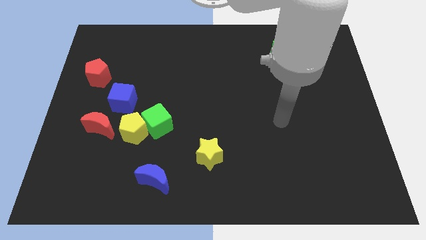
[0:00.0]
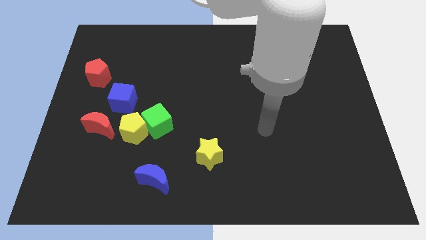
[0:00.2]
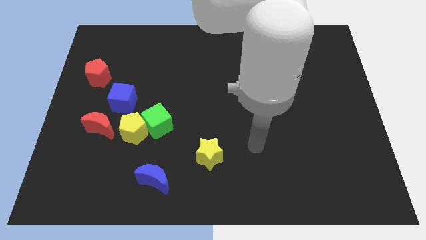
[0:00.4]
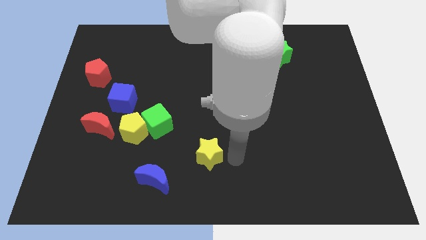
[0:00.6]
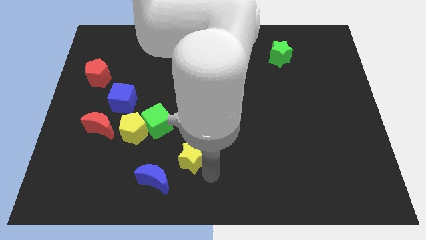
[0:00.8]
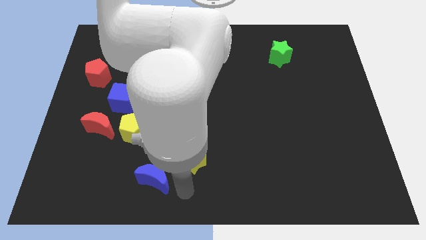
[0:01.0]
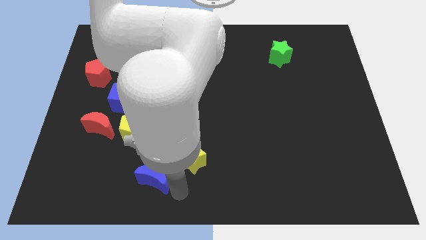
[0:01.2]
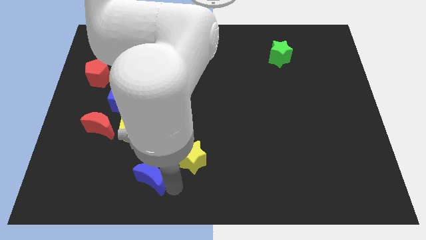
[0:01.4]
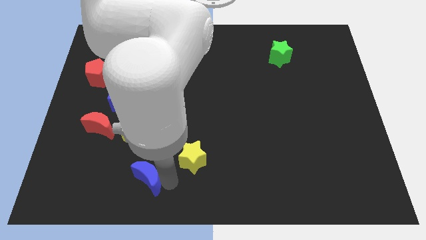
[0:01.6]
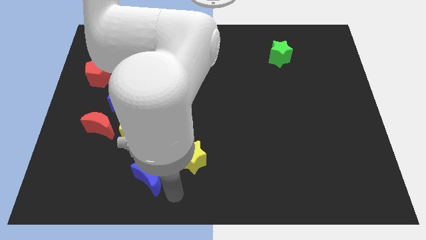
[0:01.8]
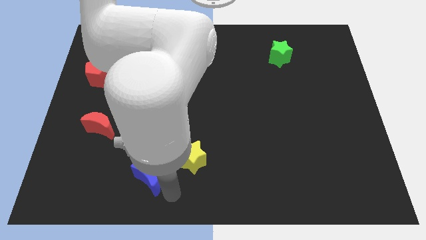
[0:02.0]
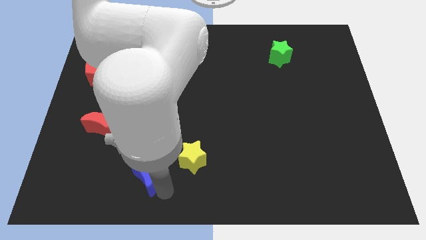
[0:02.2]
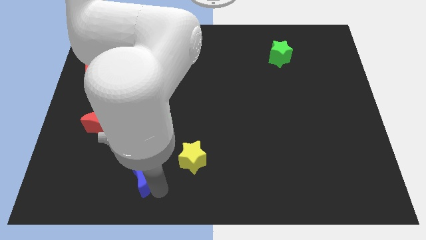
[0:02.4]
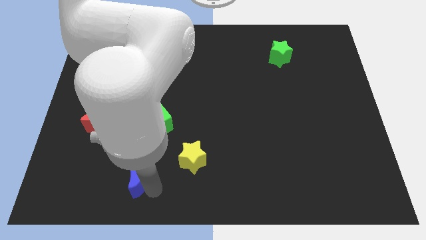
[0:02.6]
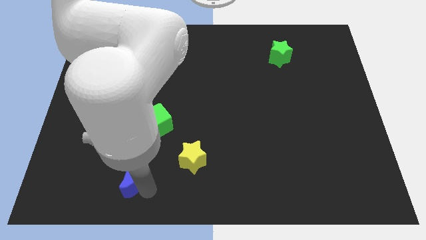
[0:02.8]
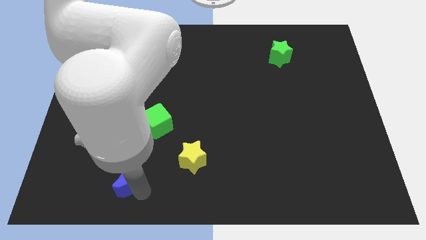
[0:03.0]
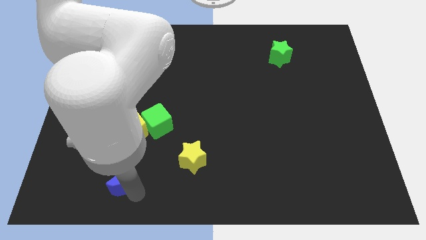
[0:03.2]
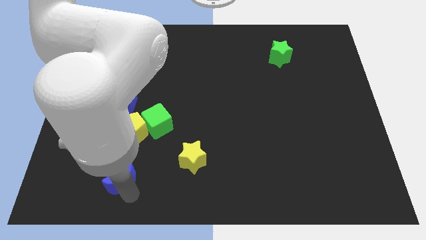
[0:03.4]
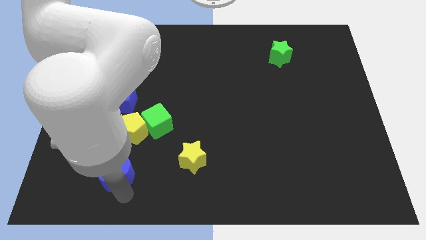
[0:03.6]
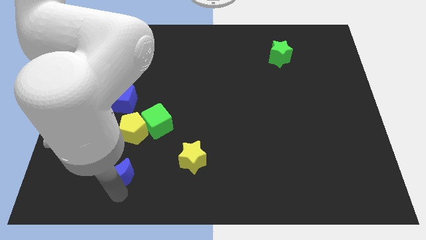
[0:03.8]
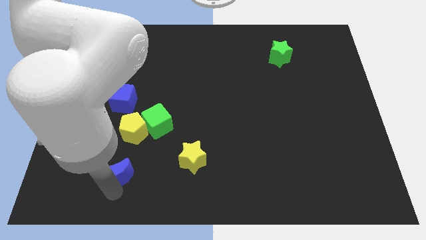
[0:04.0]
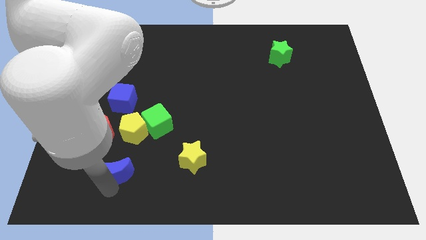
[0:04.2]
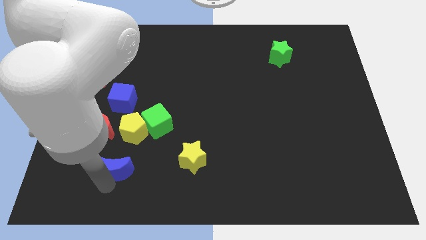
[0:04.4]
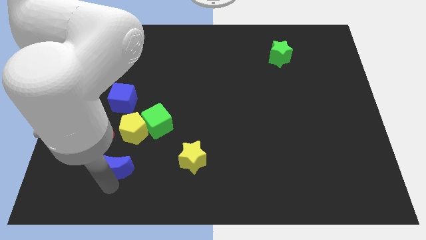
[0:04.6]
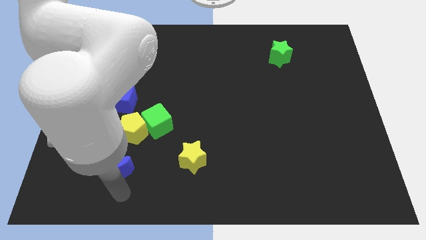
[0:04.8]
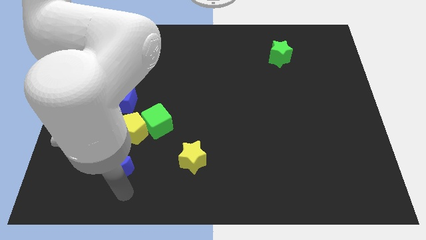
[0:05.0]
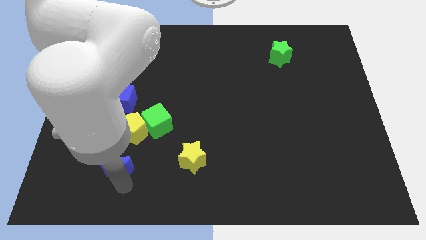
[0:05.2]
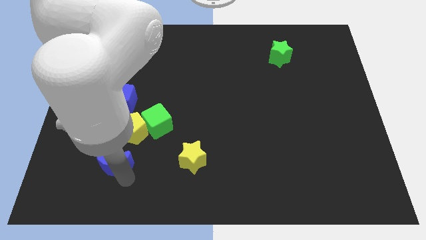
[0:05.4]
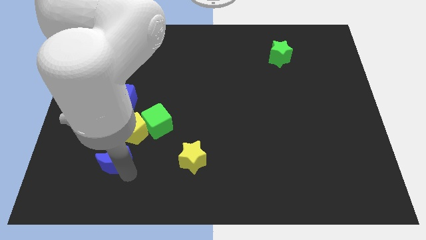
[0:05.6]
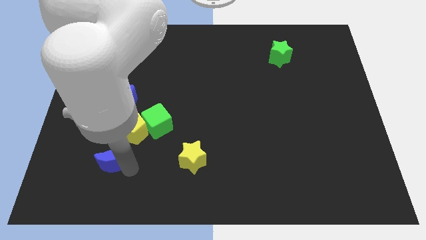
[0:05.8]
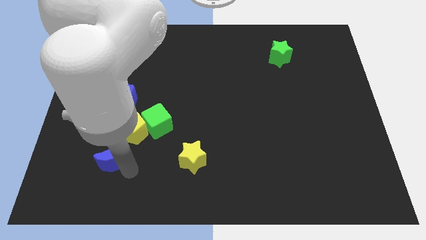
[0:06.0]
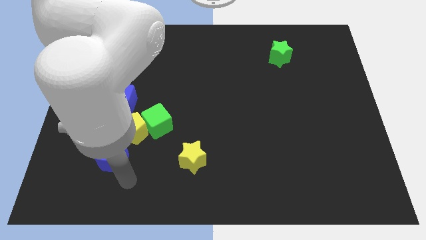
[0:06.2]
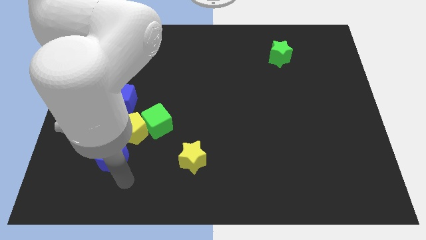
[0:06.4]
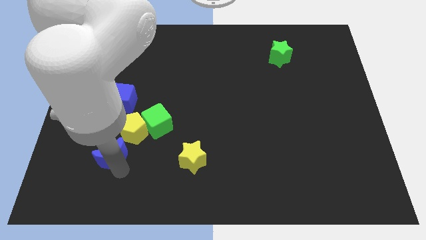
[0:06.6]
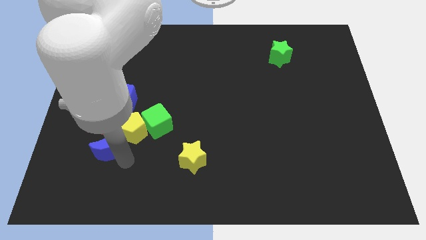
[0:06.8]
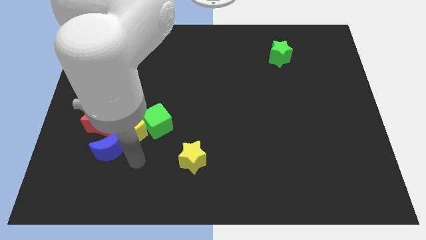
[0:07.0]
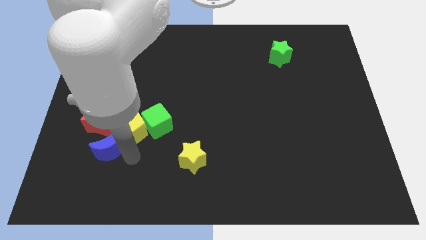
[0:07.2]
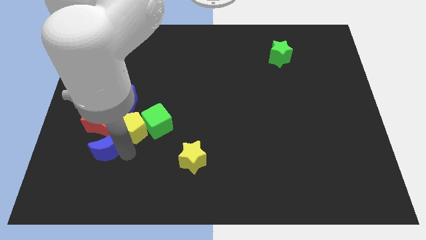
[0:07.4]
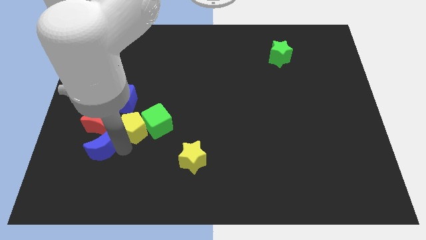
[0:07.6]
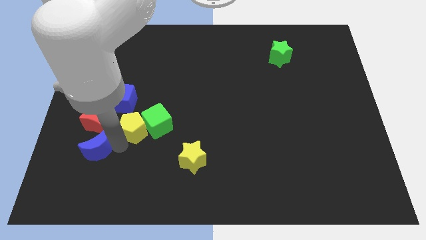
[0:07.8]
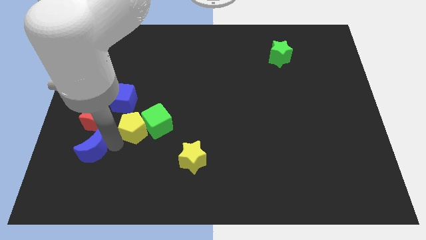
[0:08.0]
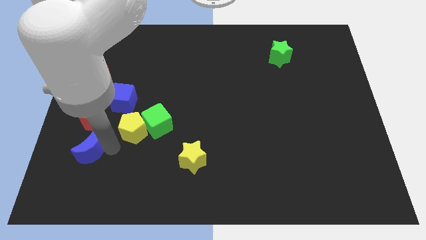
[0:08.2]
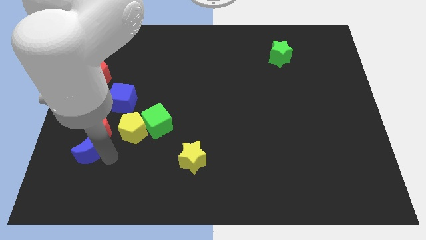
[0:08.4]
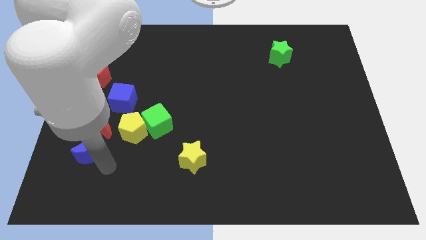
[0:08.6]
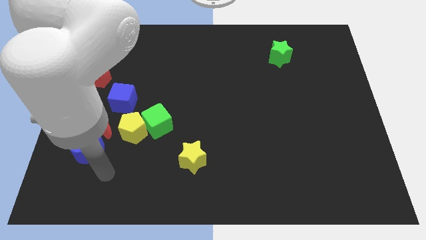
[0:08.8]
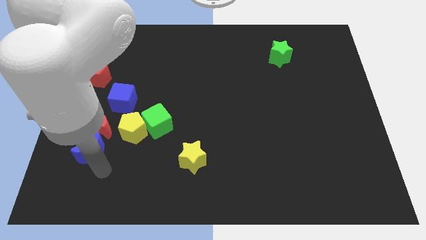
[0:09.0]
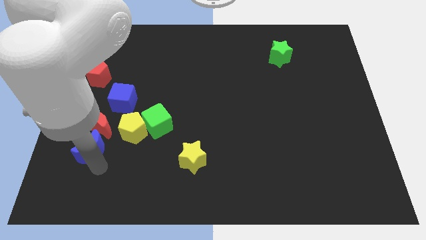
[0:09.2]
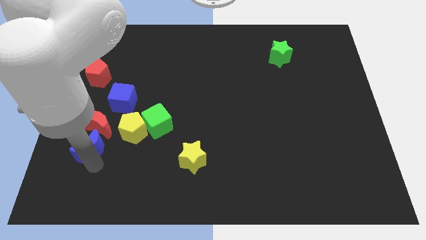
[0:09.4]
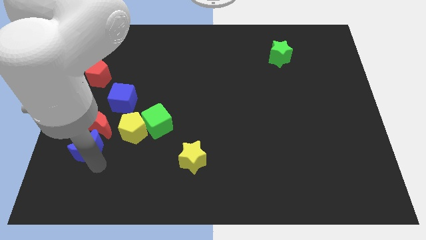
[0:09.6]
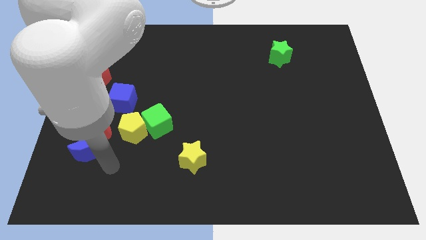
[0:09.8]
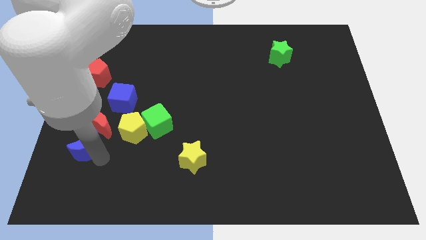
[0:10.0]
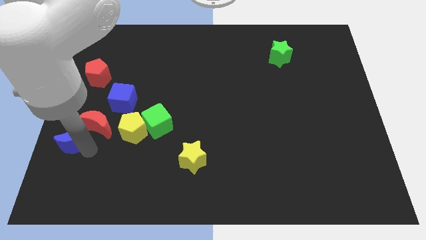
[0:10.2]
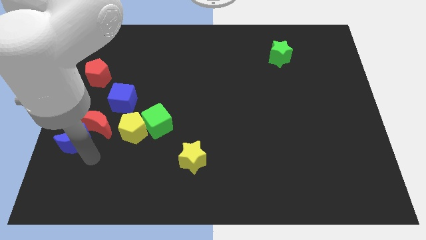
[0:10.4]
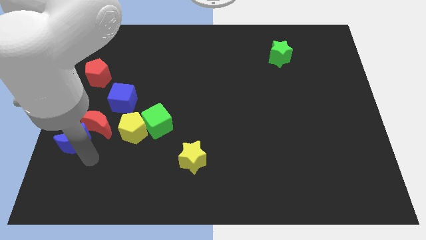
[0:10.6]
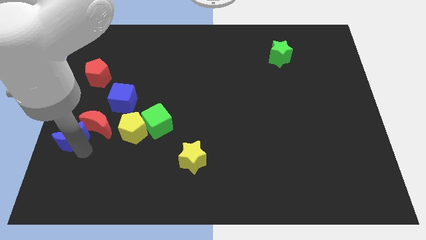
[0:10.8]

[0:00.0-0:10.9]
move the blue moon to the center left
